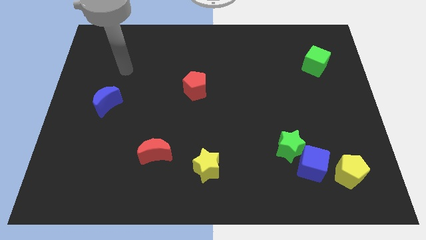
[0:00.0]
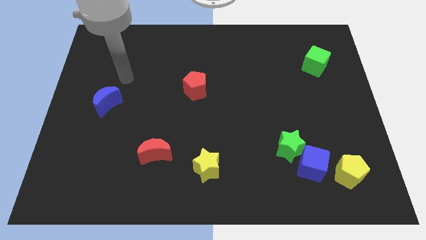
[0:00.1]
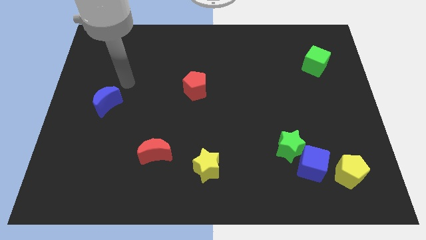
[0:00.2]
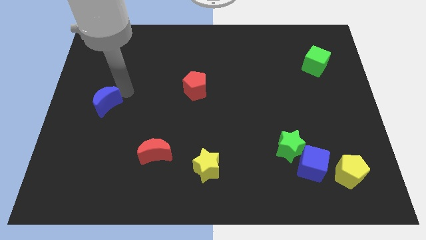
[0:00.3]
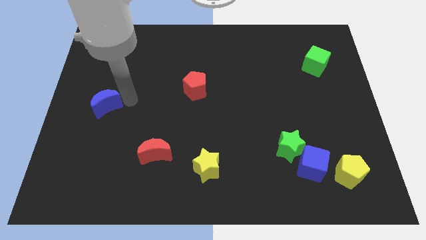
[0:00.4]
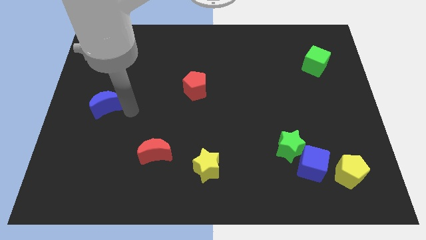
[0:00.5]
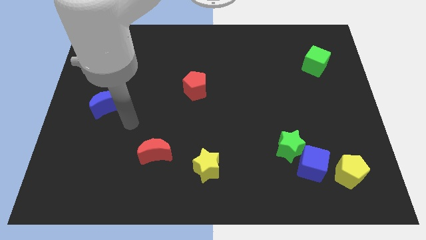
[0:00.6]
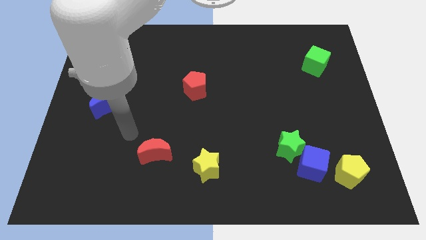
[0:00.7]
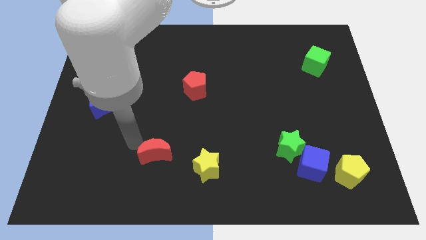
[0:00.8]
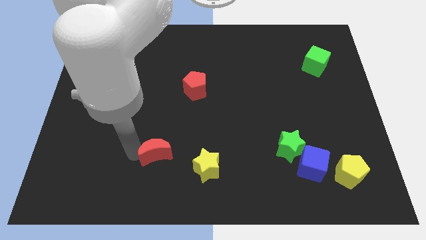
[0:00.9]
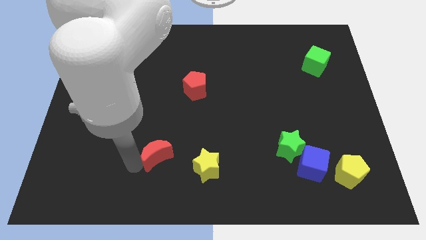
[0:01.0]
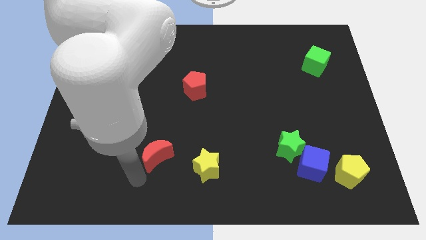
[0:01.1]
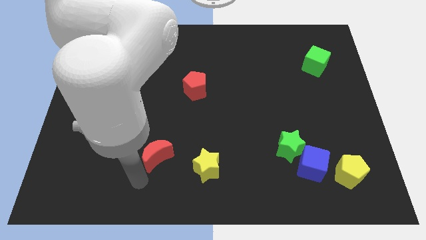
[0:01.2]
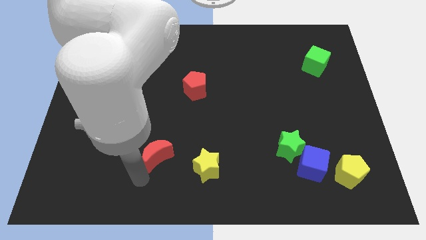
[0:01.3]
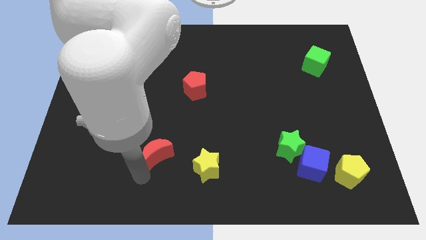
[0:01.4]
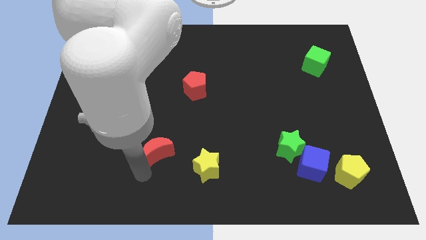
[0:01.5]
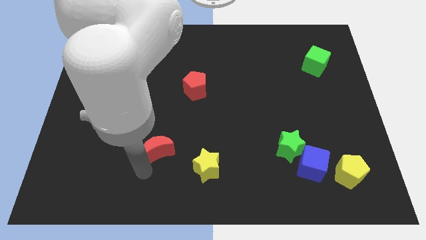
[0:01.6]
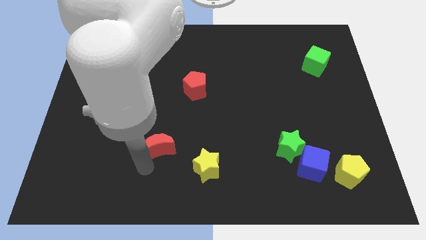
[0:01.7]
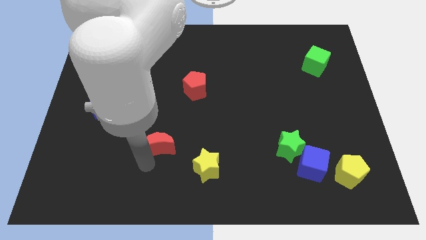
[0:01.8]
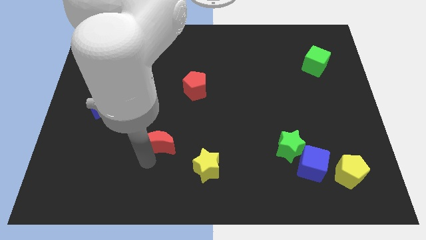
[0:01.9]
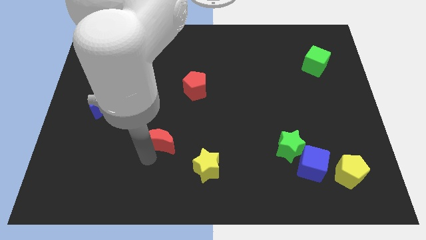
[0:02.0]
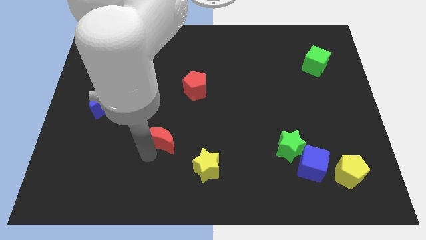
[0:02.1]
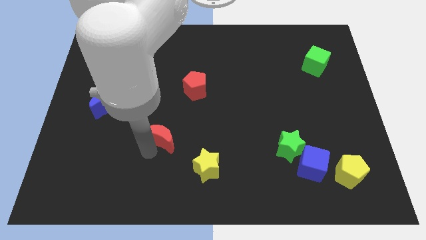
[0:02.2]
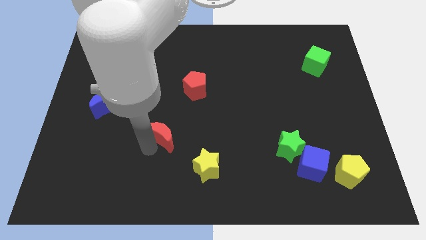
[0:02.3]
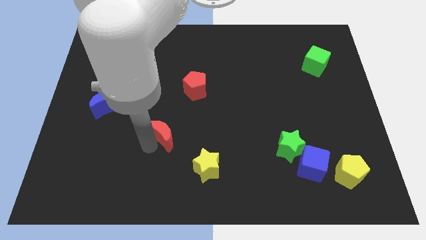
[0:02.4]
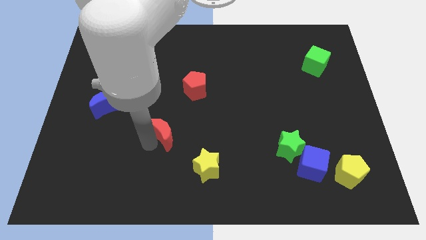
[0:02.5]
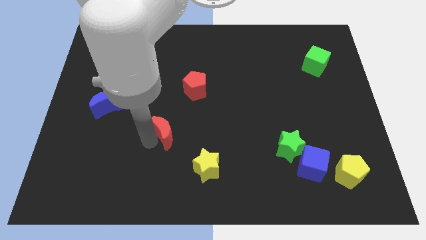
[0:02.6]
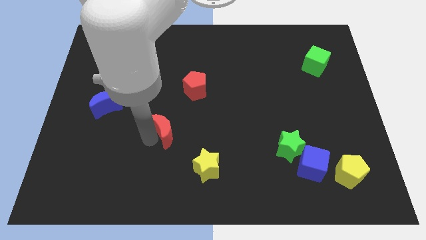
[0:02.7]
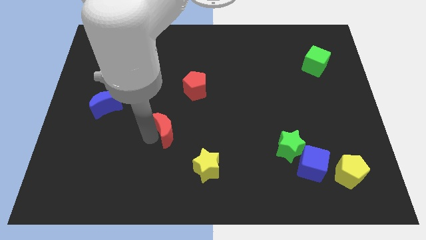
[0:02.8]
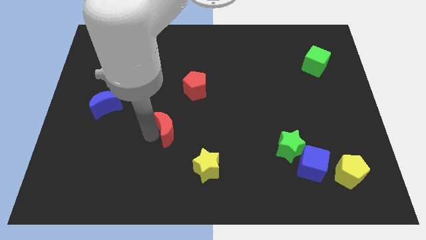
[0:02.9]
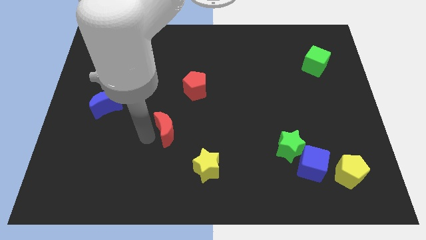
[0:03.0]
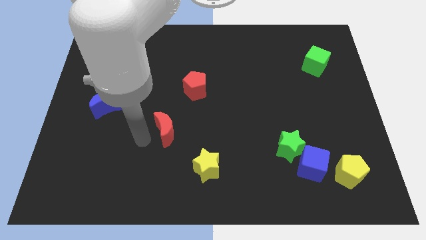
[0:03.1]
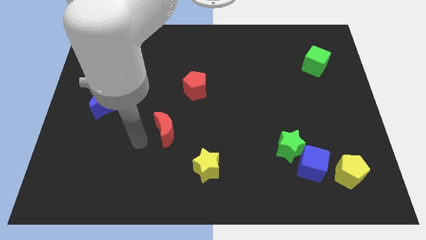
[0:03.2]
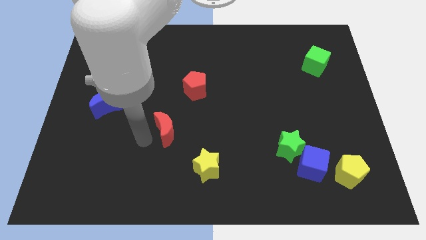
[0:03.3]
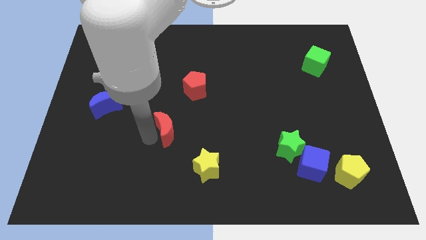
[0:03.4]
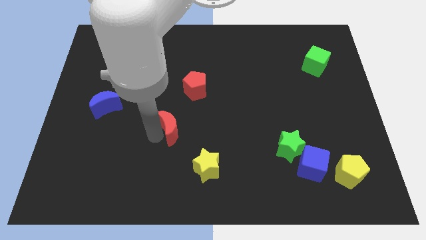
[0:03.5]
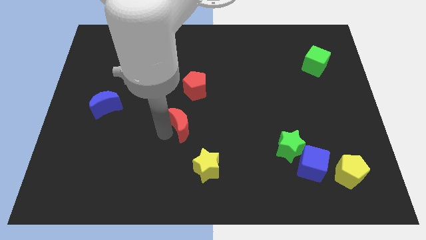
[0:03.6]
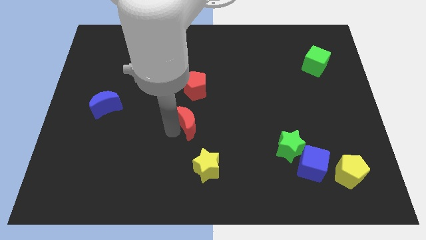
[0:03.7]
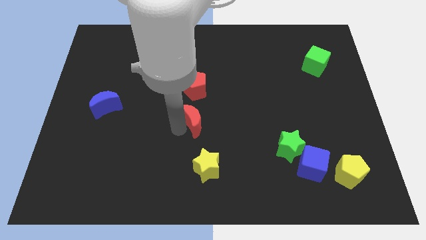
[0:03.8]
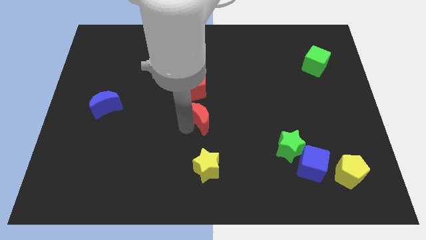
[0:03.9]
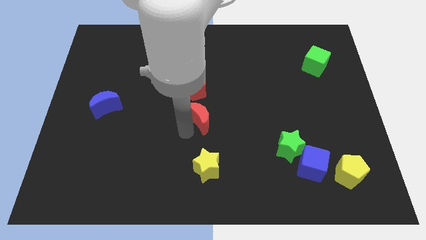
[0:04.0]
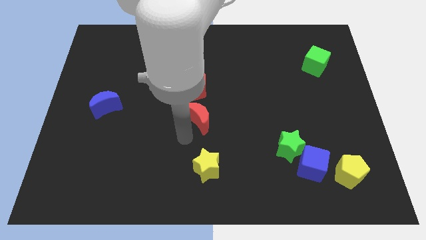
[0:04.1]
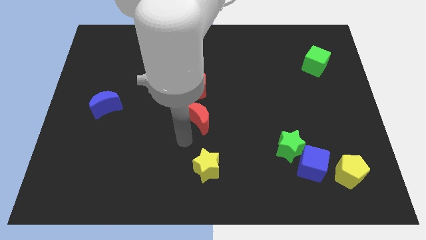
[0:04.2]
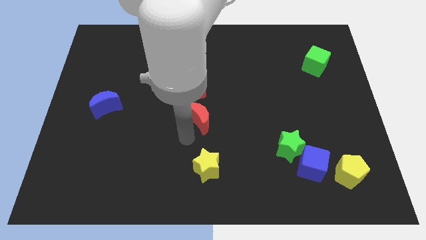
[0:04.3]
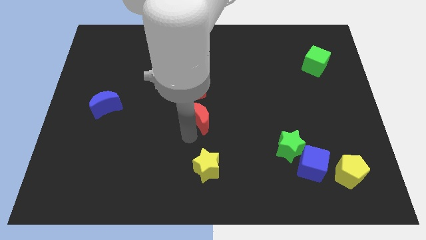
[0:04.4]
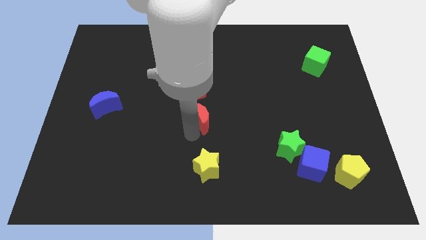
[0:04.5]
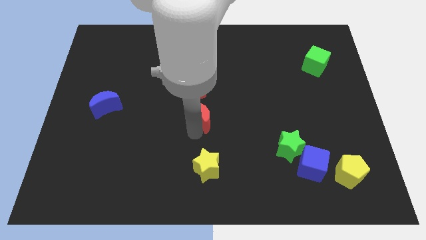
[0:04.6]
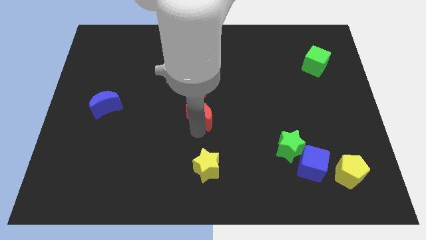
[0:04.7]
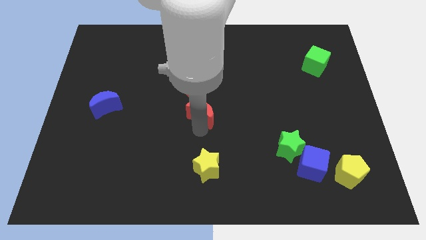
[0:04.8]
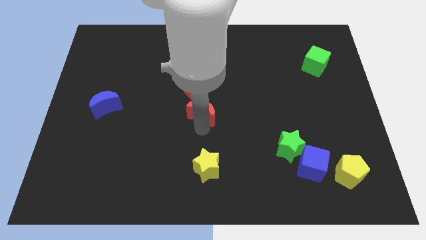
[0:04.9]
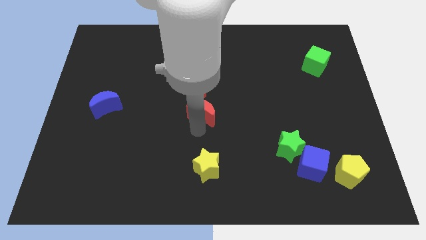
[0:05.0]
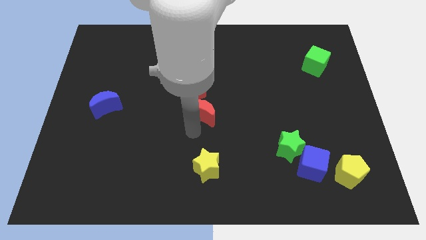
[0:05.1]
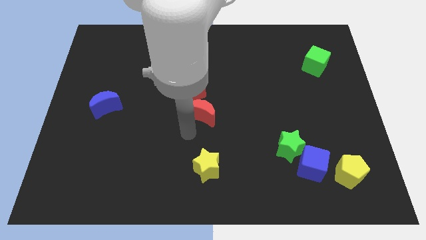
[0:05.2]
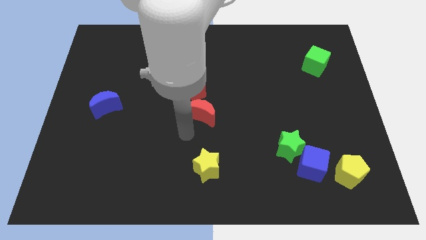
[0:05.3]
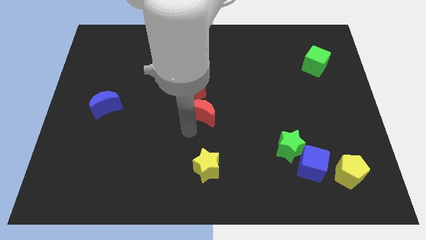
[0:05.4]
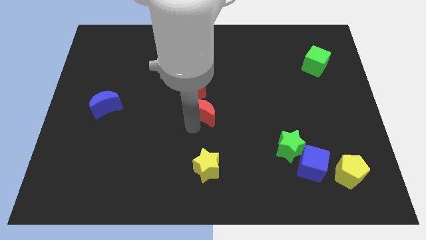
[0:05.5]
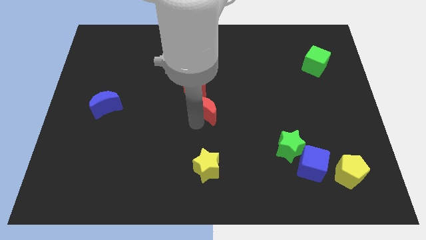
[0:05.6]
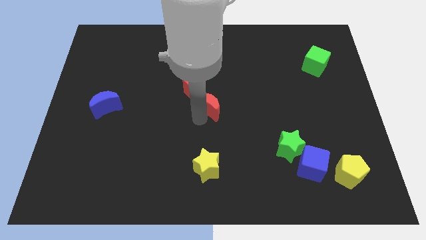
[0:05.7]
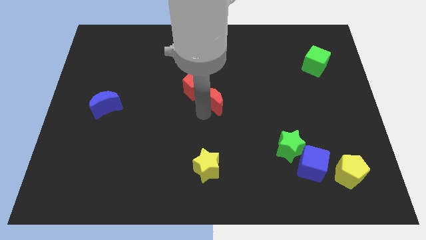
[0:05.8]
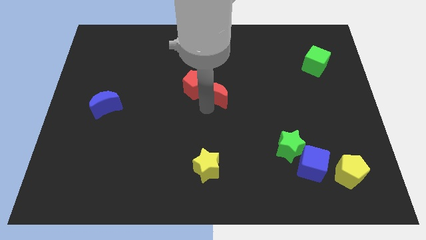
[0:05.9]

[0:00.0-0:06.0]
push the red moon up and to the right

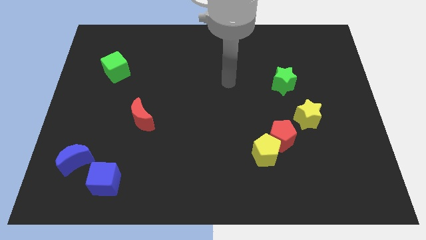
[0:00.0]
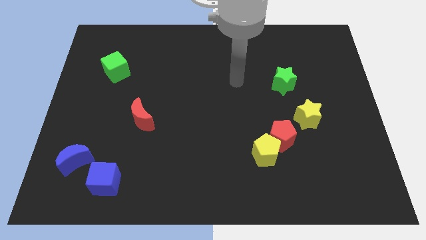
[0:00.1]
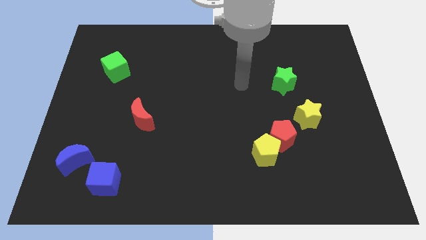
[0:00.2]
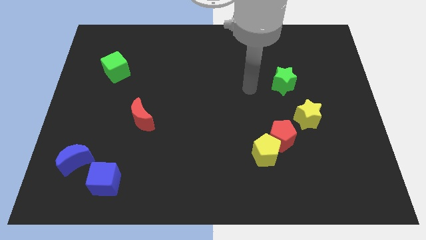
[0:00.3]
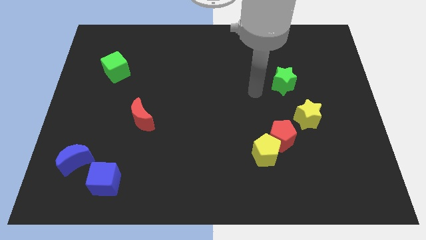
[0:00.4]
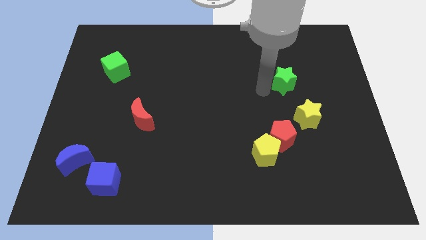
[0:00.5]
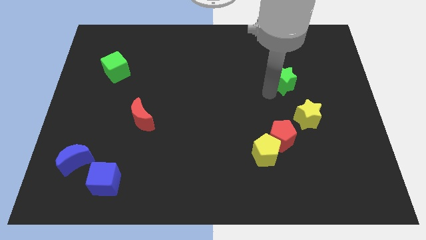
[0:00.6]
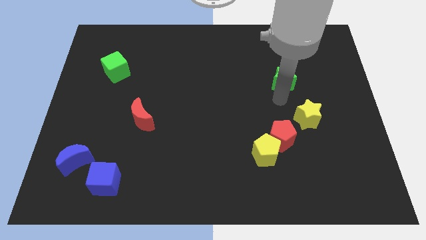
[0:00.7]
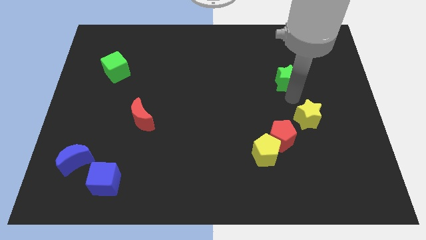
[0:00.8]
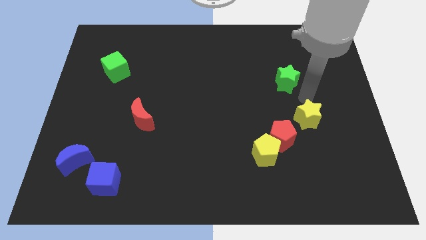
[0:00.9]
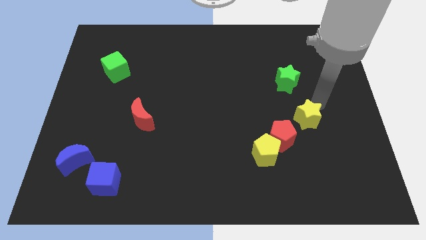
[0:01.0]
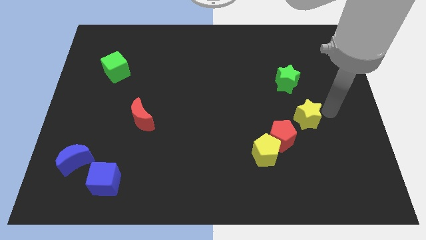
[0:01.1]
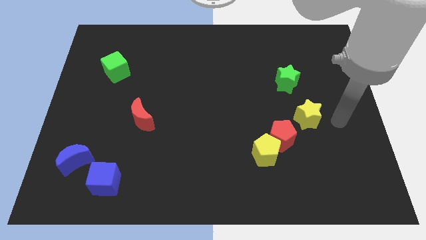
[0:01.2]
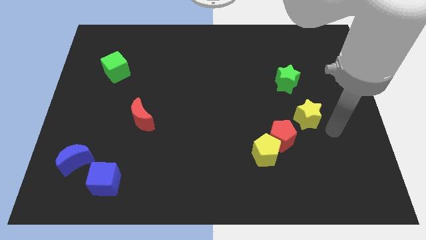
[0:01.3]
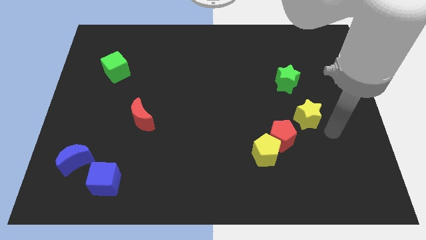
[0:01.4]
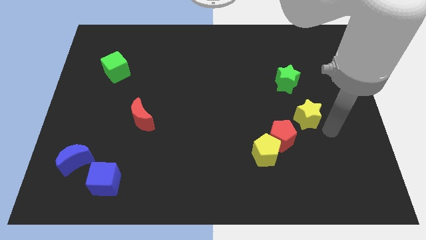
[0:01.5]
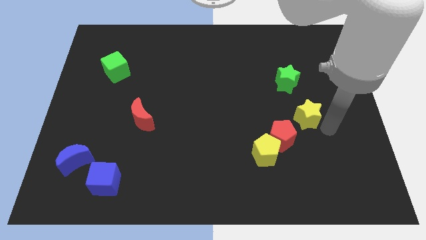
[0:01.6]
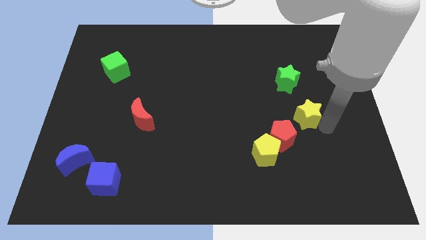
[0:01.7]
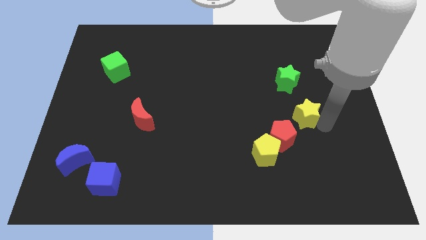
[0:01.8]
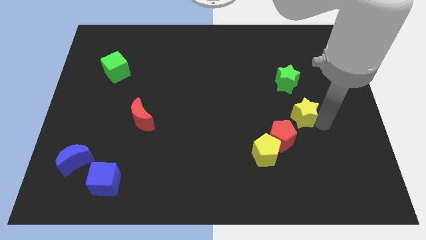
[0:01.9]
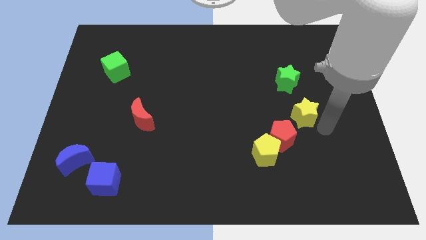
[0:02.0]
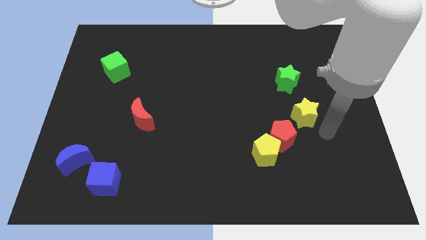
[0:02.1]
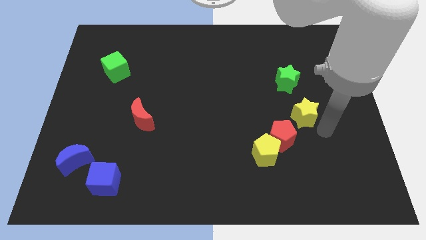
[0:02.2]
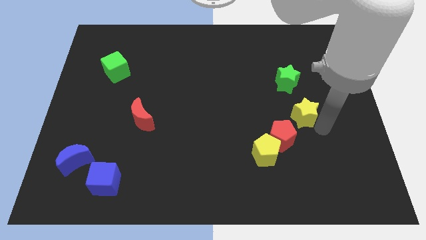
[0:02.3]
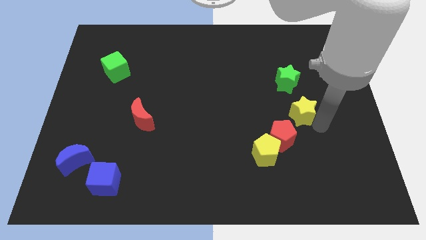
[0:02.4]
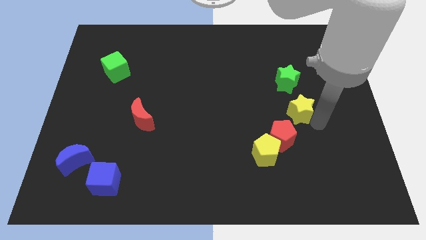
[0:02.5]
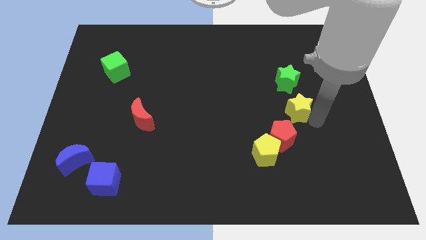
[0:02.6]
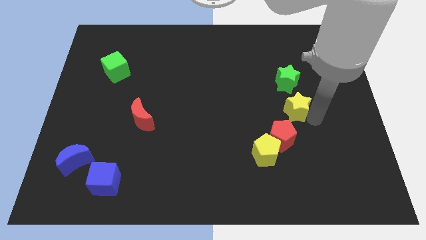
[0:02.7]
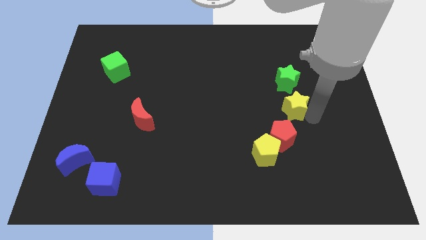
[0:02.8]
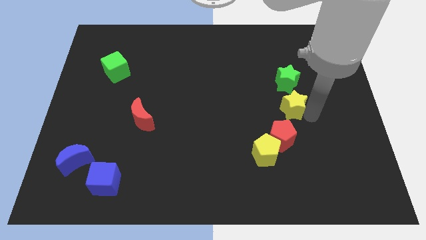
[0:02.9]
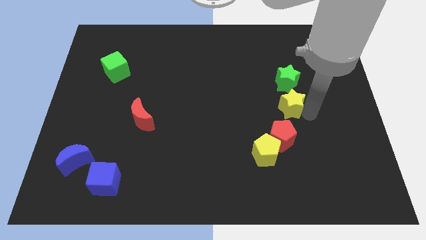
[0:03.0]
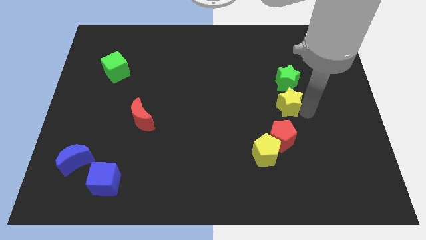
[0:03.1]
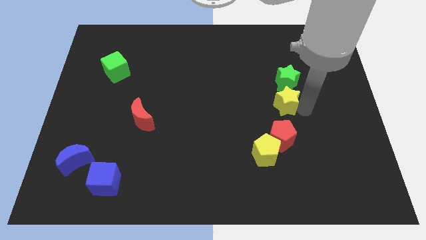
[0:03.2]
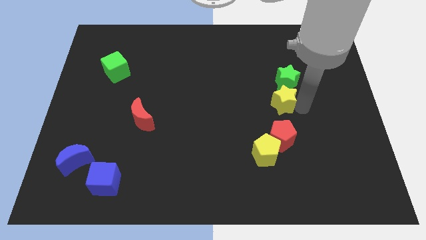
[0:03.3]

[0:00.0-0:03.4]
slightly move the yellow star up and to the left
